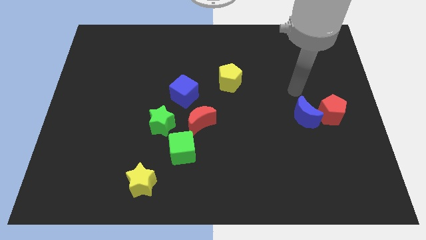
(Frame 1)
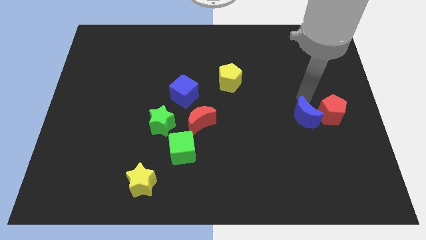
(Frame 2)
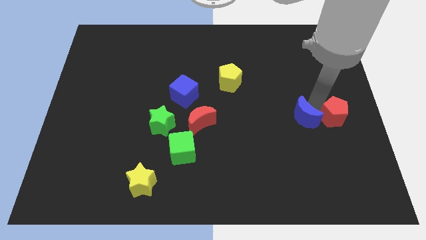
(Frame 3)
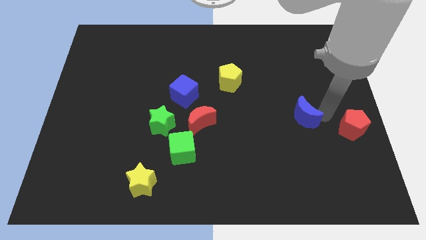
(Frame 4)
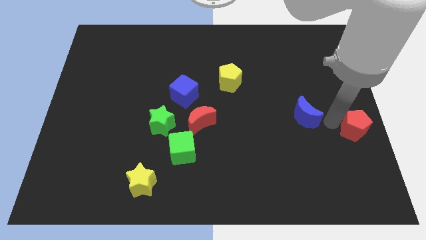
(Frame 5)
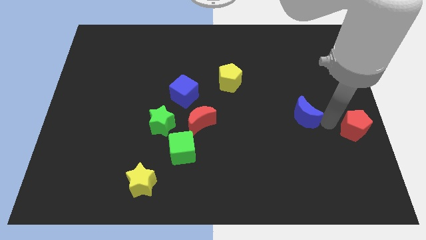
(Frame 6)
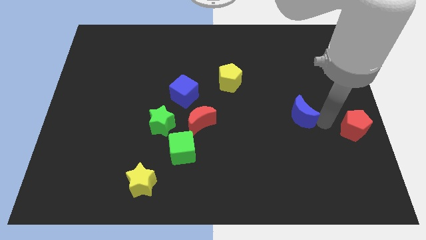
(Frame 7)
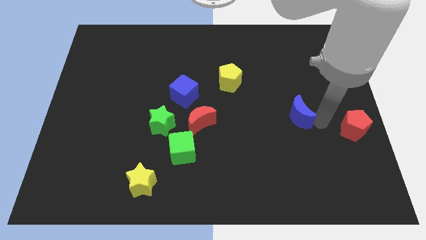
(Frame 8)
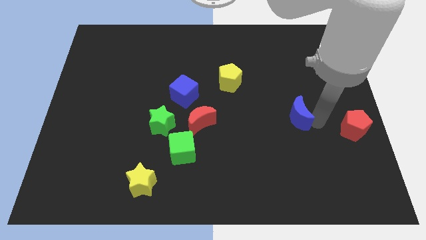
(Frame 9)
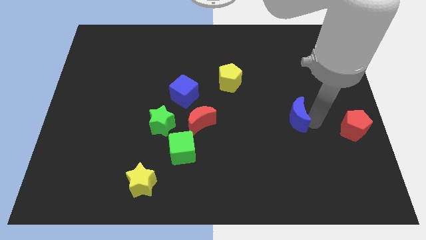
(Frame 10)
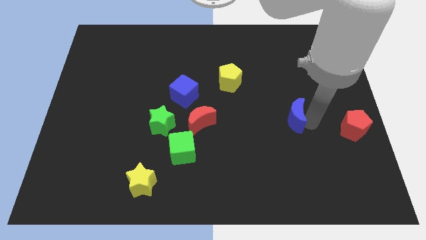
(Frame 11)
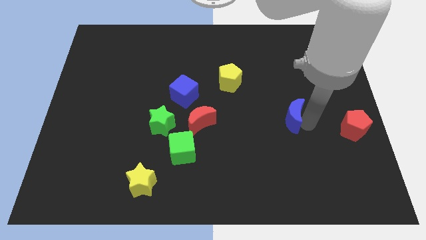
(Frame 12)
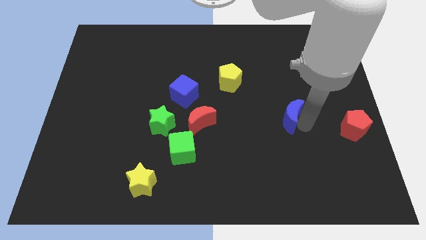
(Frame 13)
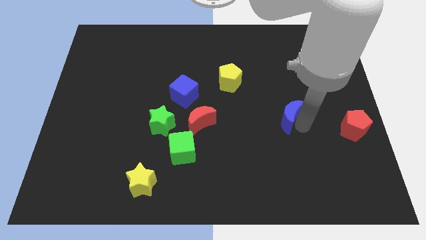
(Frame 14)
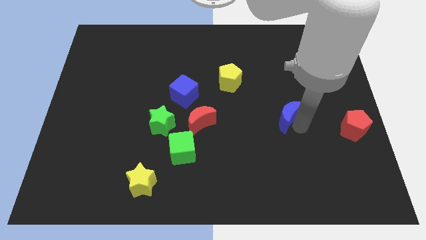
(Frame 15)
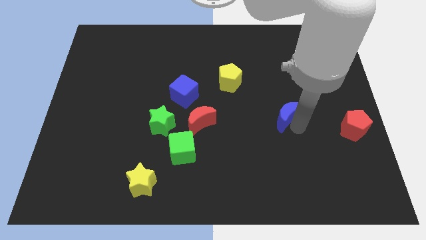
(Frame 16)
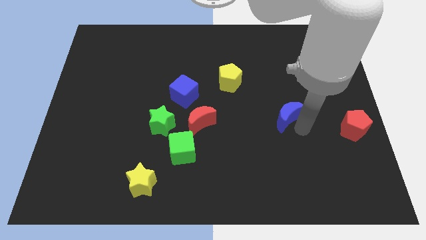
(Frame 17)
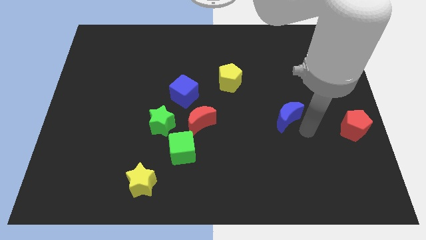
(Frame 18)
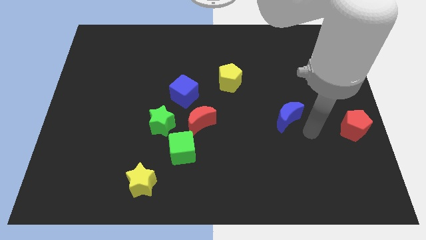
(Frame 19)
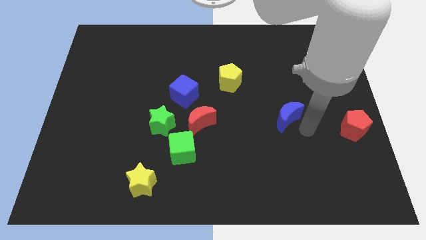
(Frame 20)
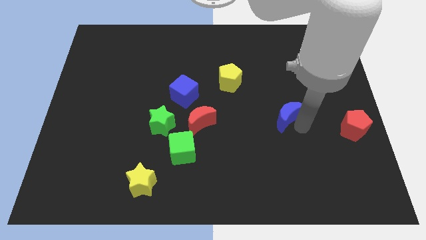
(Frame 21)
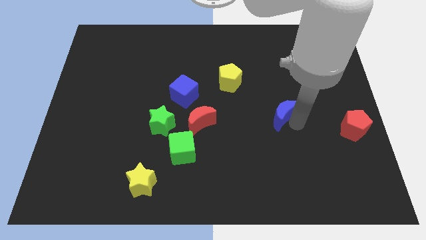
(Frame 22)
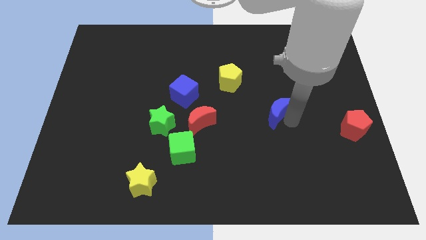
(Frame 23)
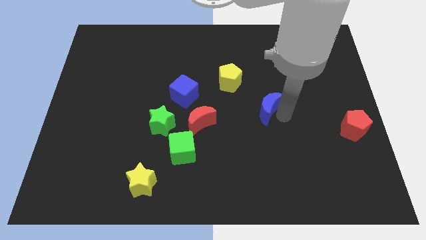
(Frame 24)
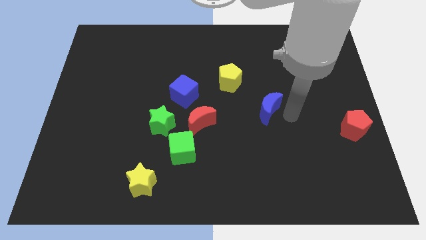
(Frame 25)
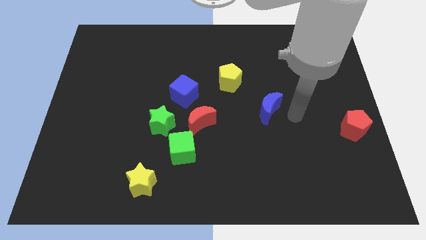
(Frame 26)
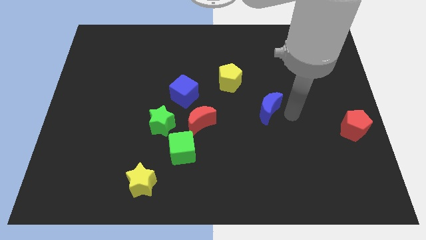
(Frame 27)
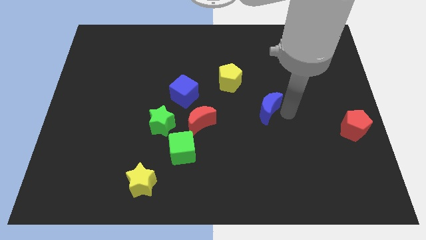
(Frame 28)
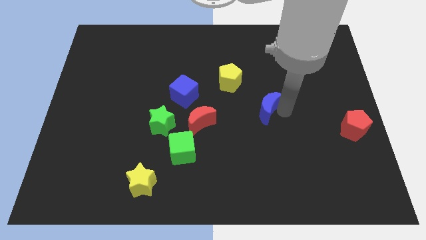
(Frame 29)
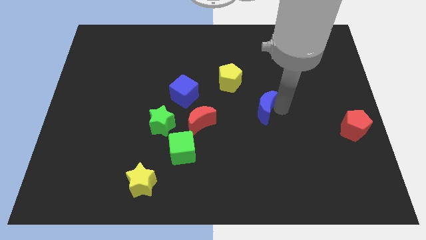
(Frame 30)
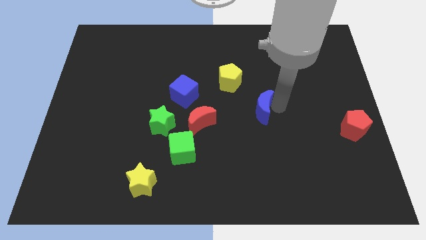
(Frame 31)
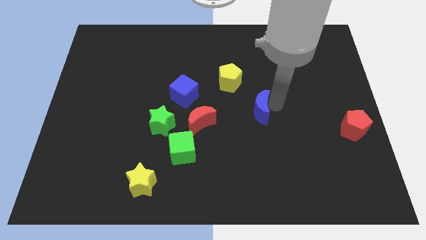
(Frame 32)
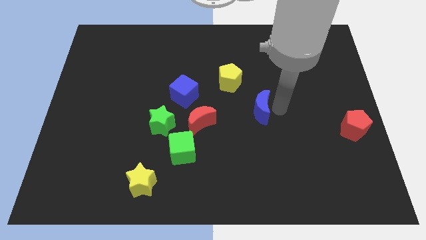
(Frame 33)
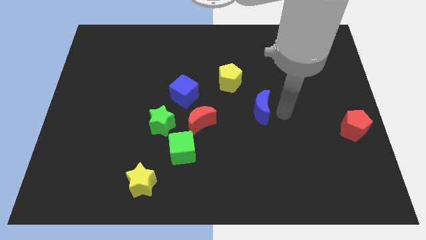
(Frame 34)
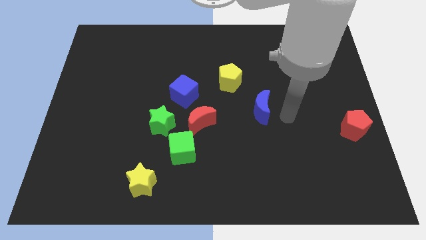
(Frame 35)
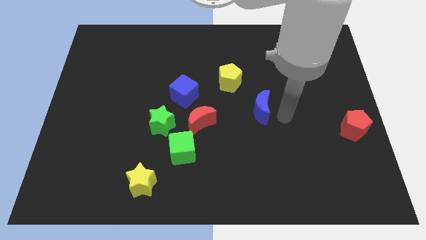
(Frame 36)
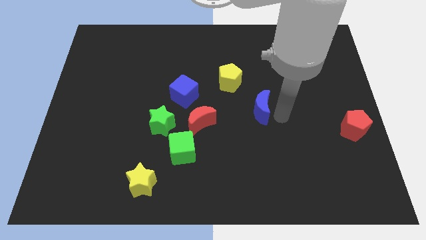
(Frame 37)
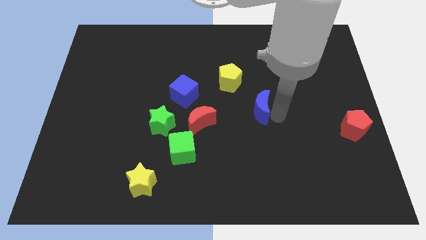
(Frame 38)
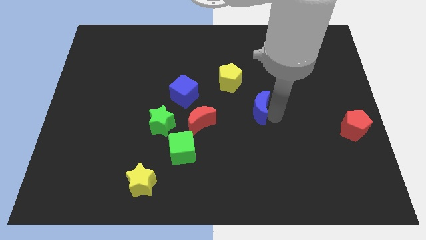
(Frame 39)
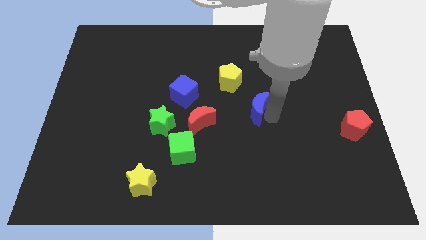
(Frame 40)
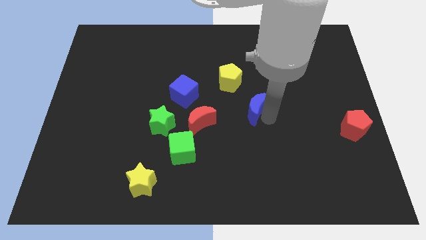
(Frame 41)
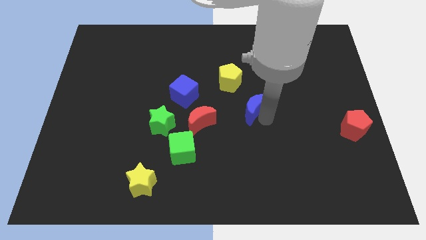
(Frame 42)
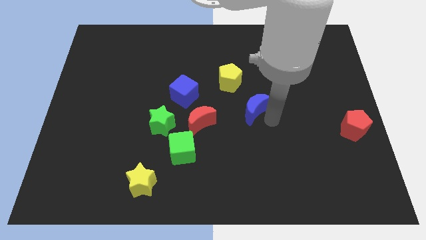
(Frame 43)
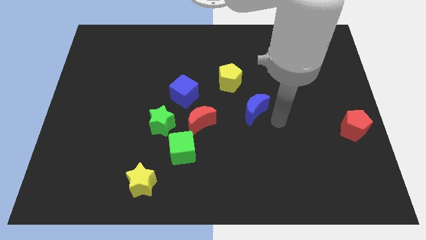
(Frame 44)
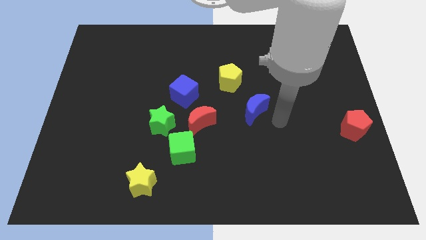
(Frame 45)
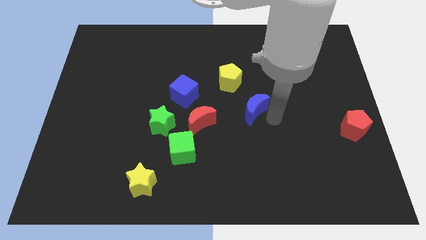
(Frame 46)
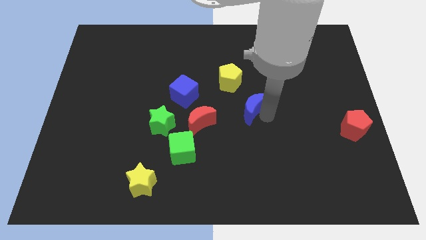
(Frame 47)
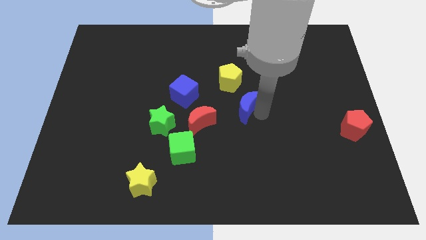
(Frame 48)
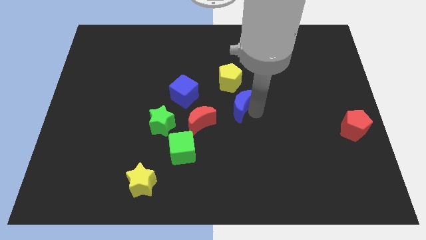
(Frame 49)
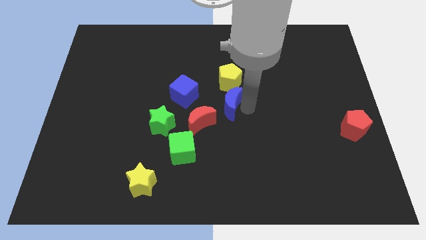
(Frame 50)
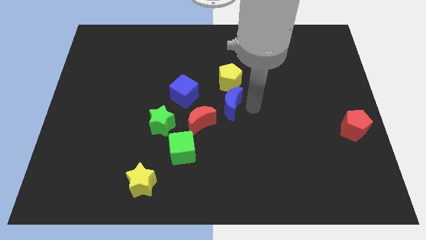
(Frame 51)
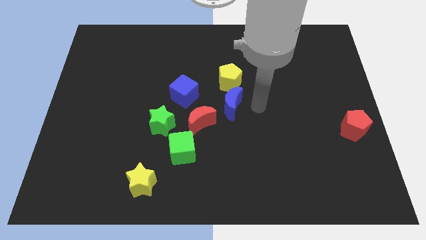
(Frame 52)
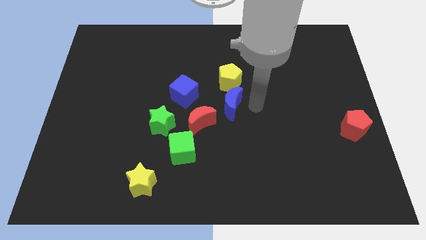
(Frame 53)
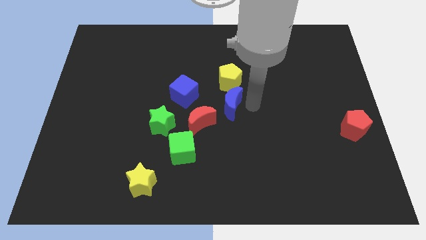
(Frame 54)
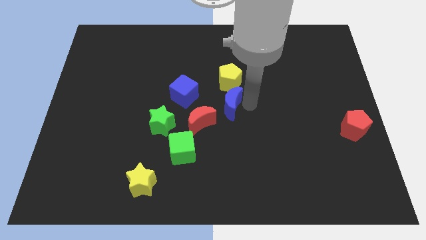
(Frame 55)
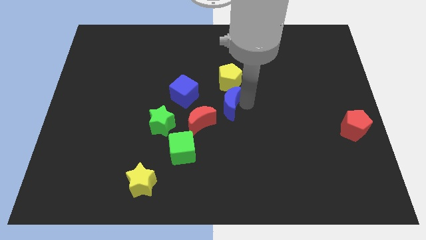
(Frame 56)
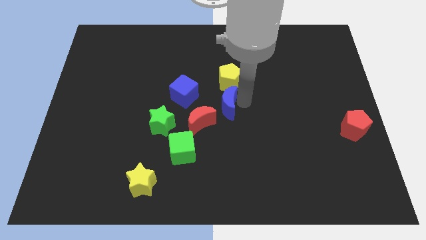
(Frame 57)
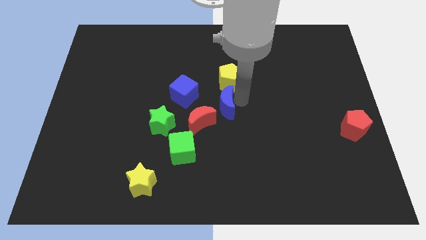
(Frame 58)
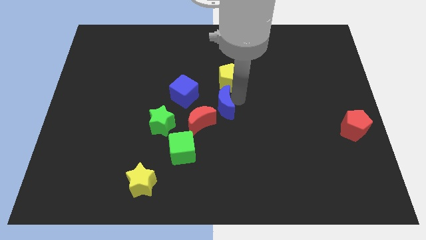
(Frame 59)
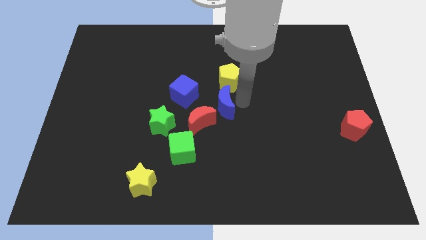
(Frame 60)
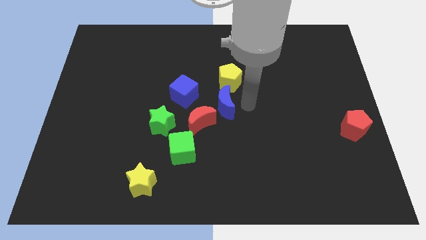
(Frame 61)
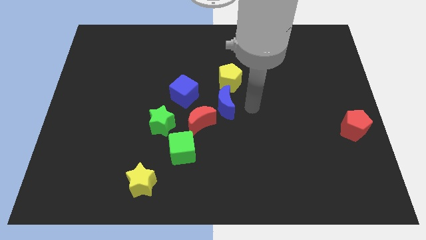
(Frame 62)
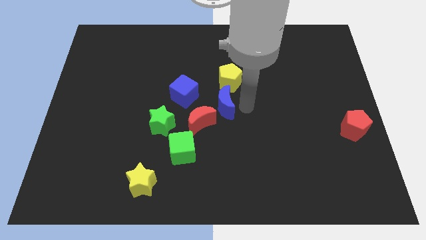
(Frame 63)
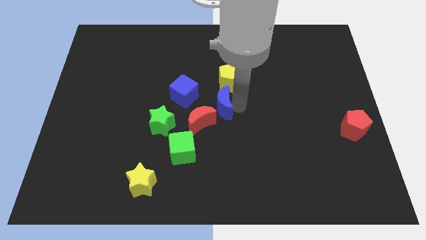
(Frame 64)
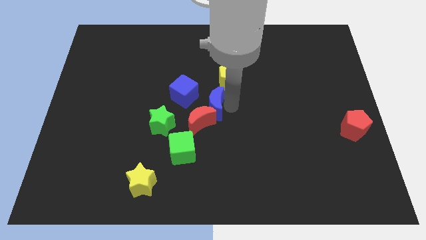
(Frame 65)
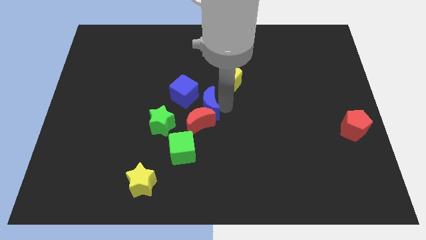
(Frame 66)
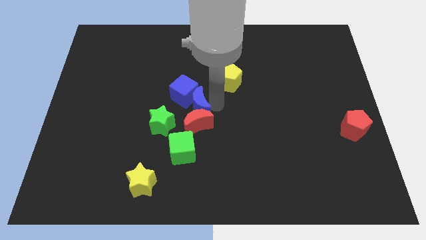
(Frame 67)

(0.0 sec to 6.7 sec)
push the blue moon below the blue cube

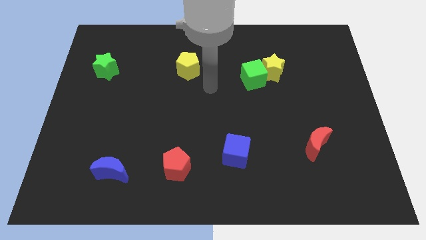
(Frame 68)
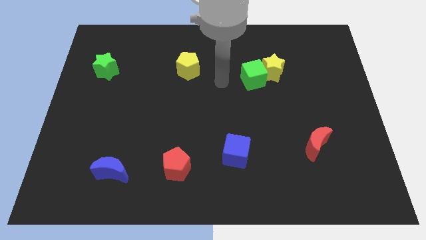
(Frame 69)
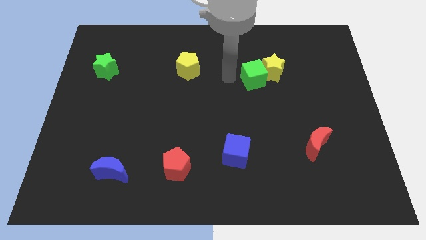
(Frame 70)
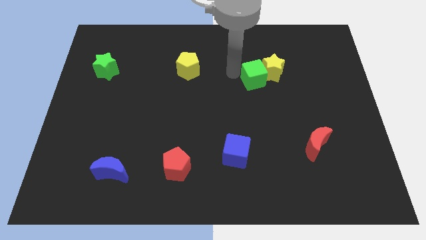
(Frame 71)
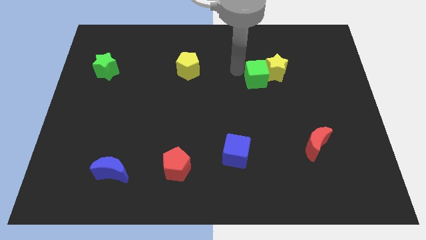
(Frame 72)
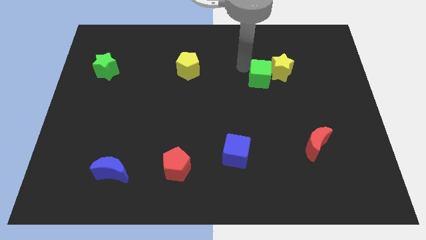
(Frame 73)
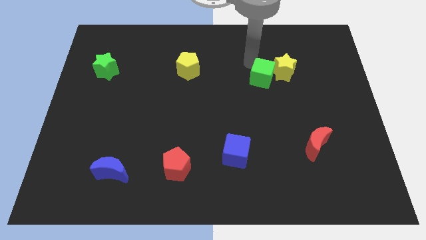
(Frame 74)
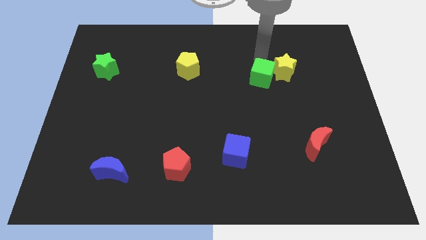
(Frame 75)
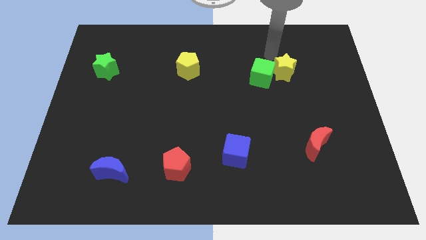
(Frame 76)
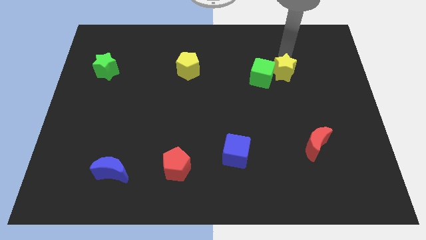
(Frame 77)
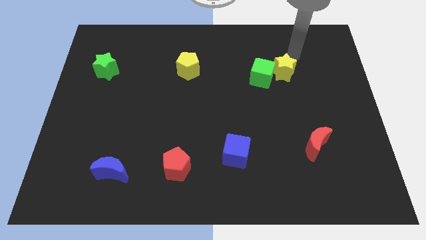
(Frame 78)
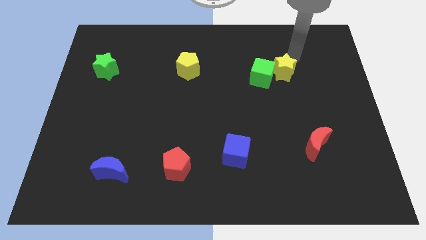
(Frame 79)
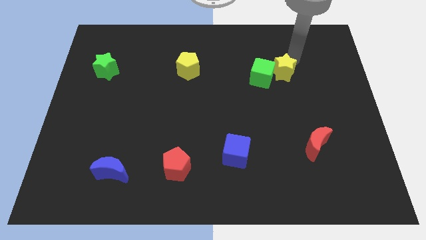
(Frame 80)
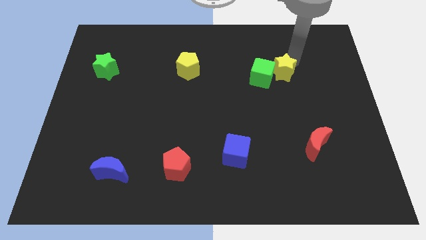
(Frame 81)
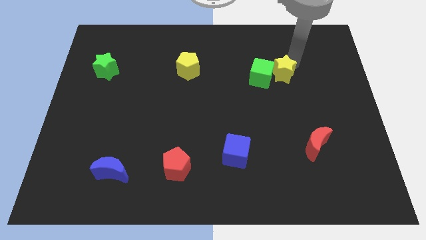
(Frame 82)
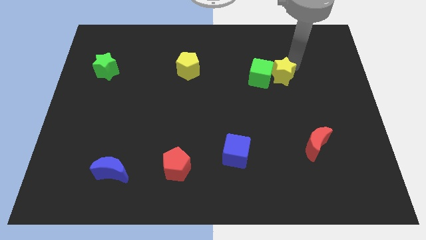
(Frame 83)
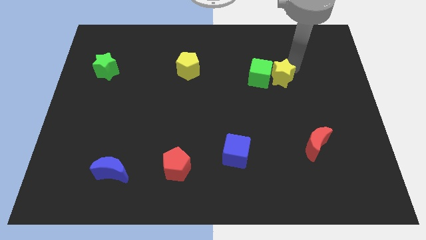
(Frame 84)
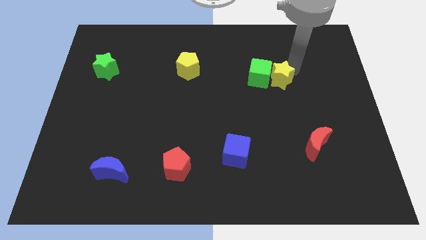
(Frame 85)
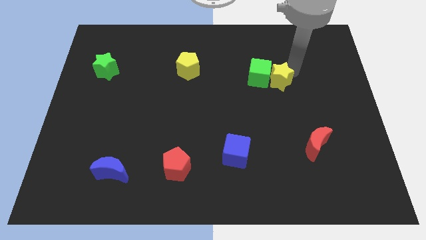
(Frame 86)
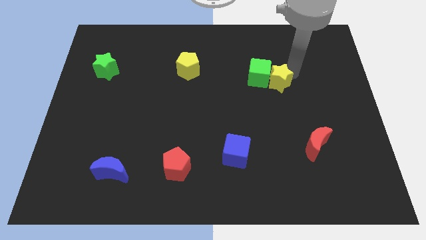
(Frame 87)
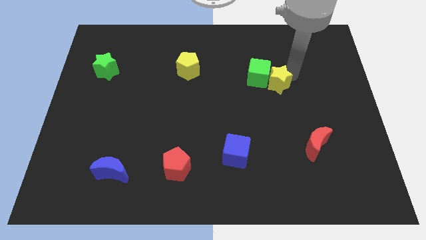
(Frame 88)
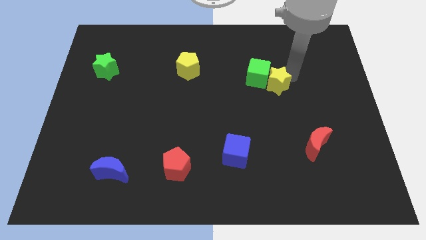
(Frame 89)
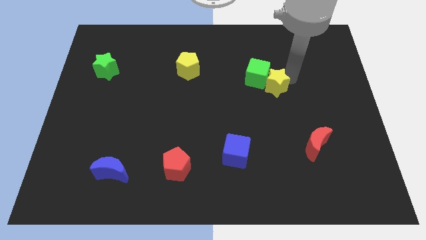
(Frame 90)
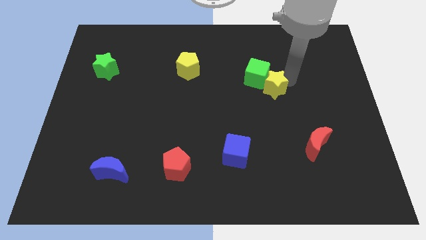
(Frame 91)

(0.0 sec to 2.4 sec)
move the yellow star below the green cube
